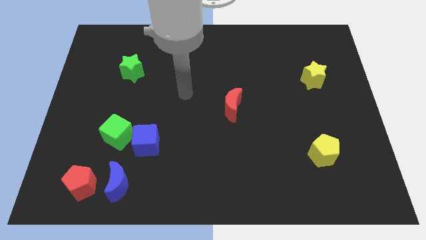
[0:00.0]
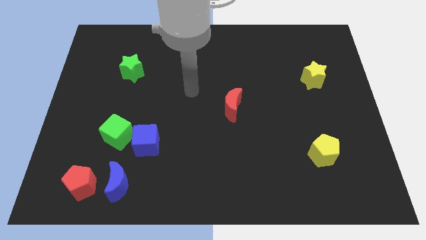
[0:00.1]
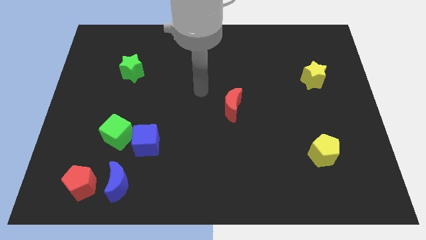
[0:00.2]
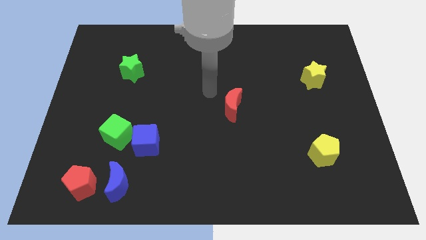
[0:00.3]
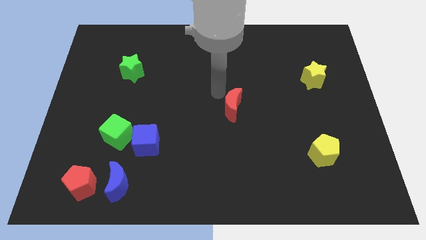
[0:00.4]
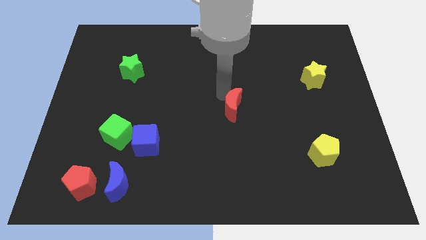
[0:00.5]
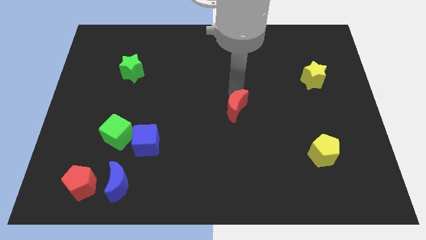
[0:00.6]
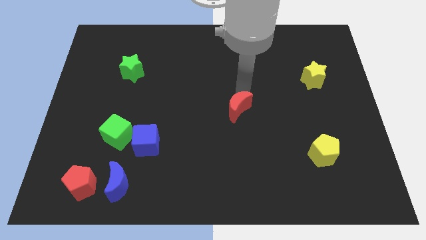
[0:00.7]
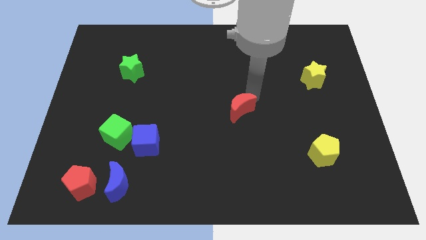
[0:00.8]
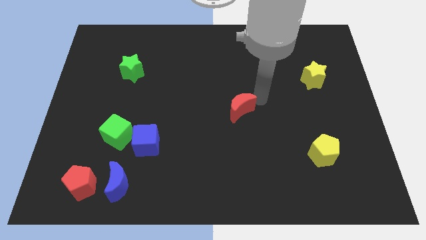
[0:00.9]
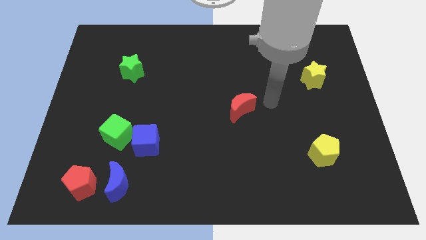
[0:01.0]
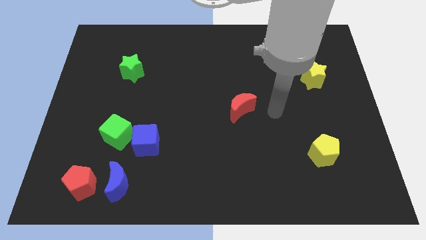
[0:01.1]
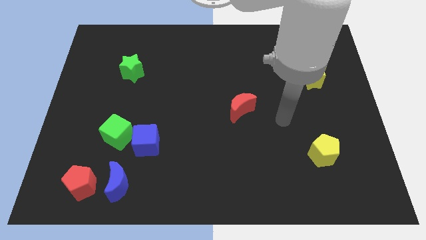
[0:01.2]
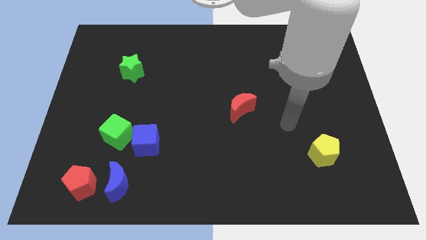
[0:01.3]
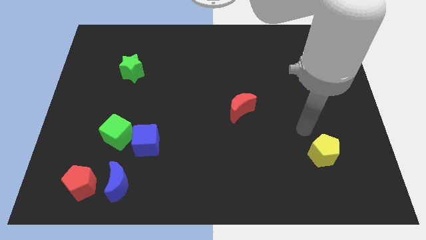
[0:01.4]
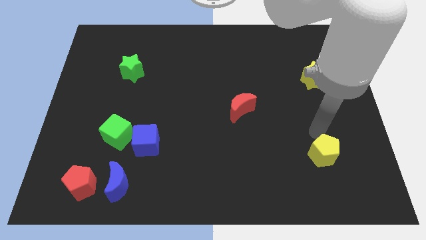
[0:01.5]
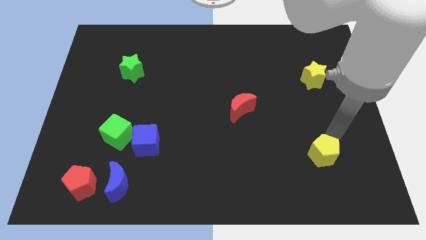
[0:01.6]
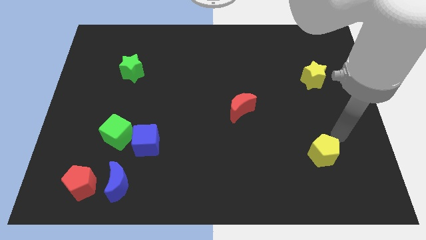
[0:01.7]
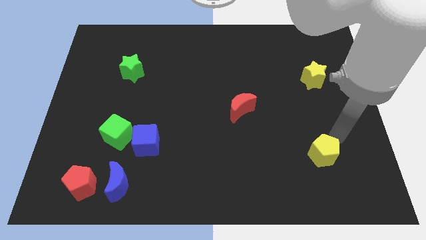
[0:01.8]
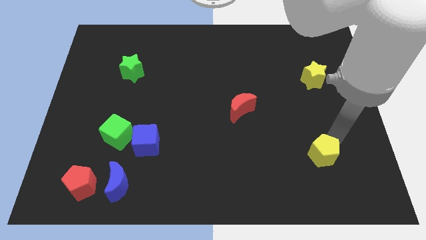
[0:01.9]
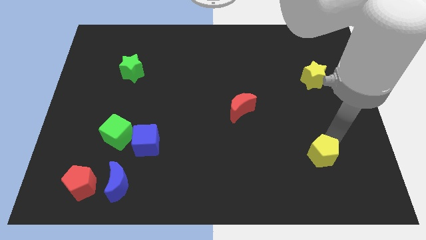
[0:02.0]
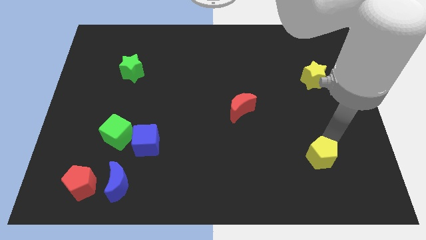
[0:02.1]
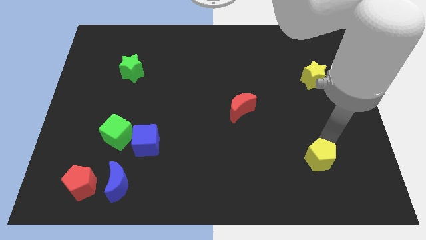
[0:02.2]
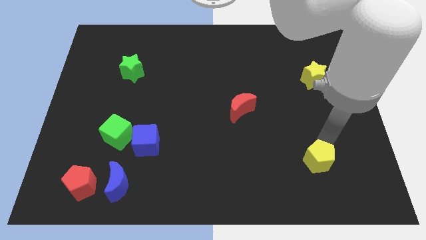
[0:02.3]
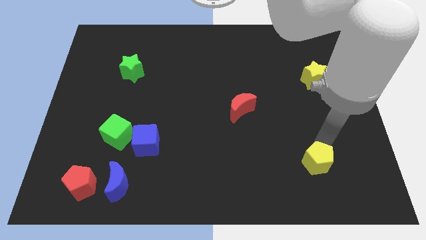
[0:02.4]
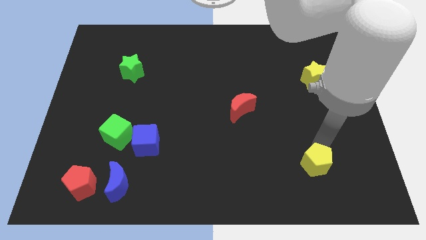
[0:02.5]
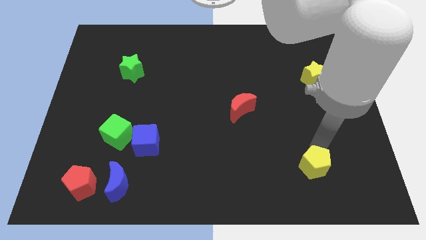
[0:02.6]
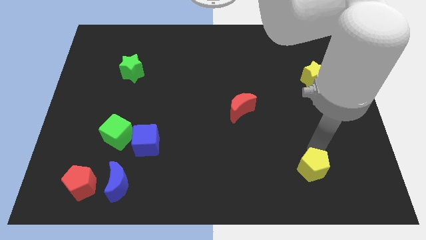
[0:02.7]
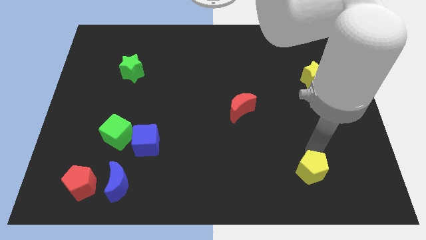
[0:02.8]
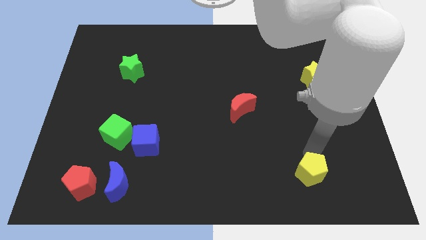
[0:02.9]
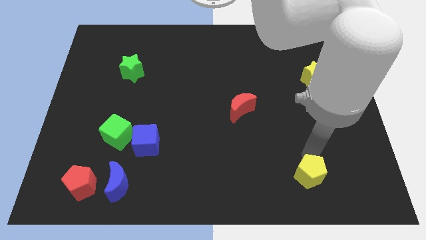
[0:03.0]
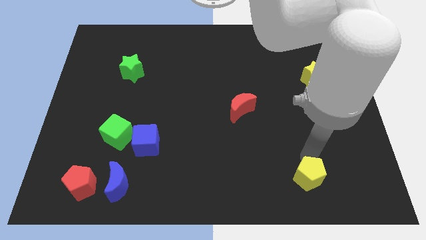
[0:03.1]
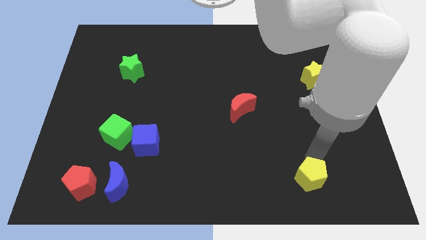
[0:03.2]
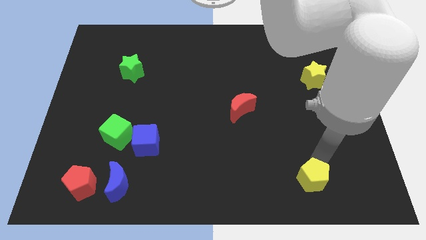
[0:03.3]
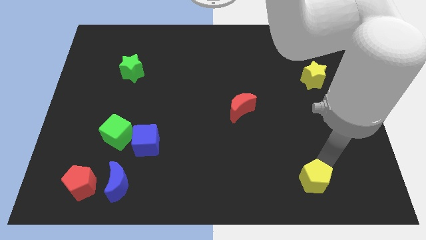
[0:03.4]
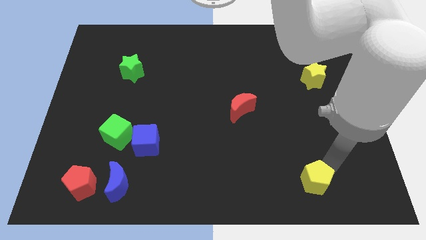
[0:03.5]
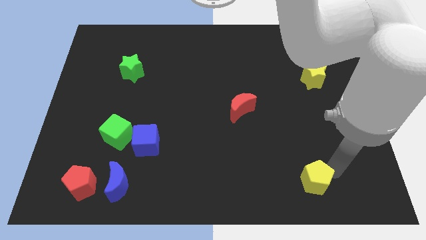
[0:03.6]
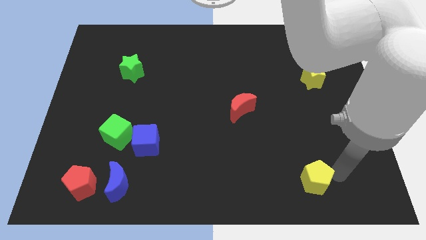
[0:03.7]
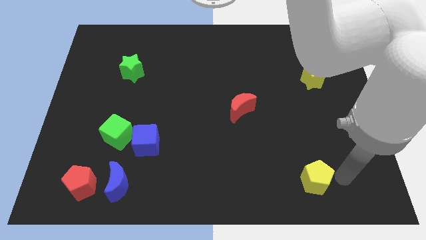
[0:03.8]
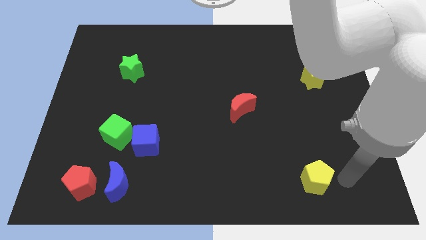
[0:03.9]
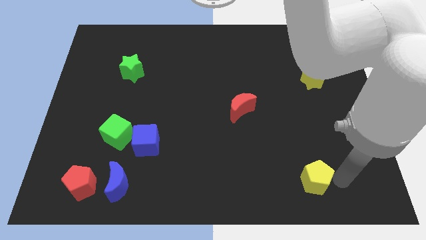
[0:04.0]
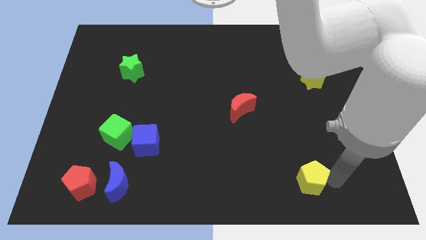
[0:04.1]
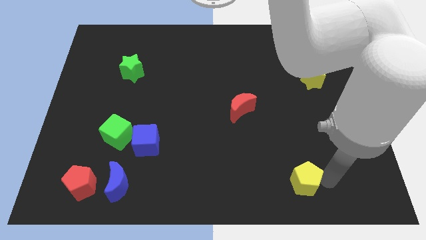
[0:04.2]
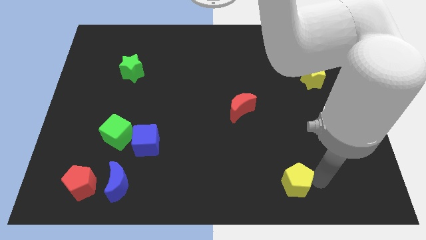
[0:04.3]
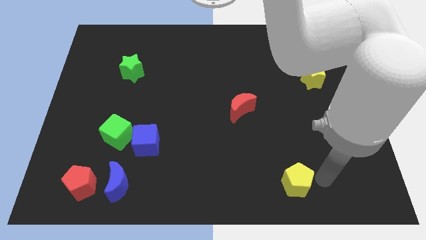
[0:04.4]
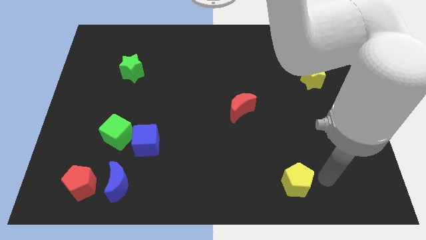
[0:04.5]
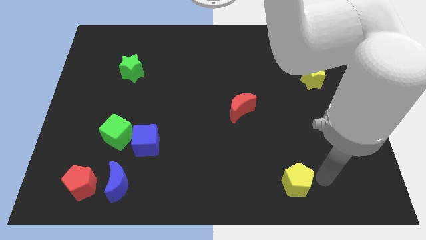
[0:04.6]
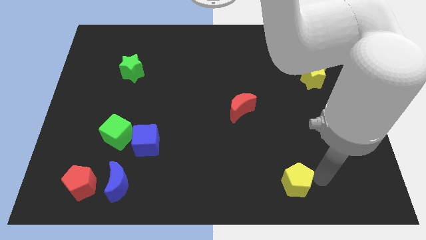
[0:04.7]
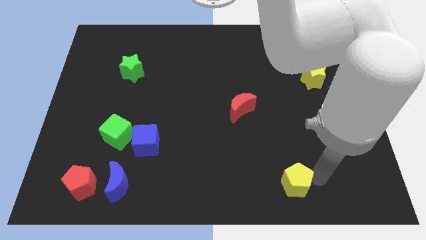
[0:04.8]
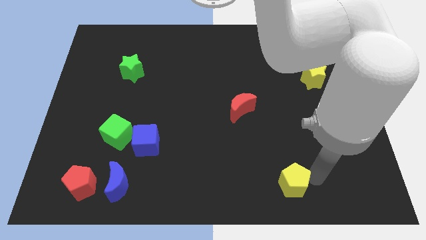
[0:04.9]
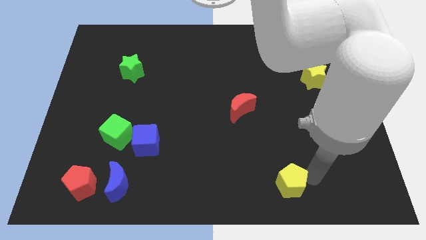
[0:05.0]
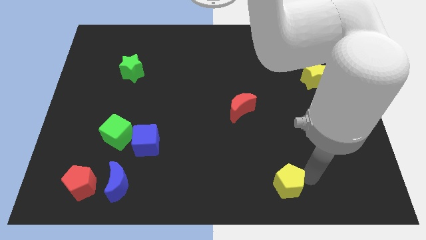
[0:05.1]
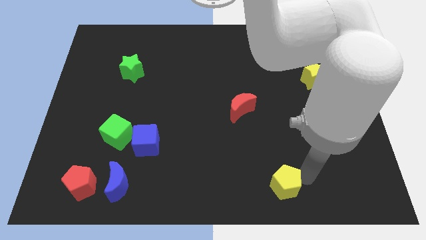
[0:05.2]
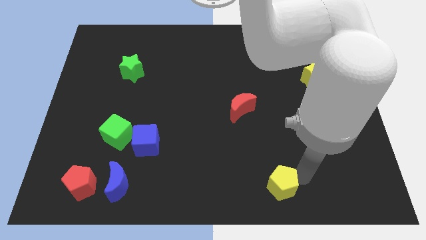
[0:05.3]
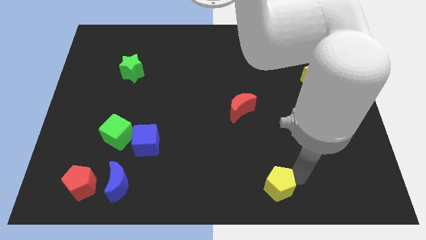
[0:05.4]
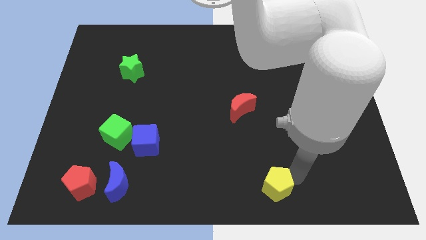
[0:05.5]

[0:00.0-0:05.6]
put the yellow pentagon to the bottom

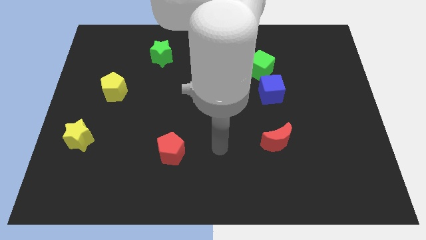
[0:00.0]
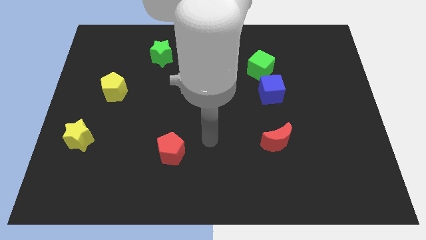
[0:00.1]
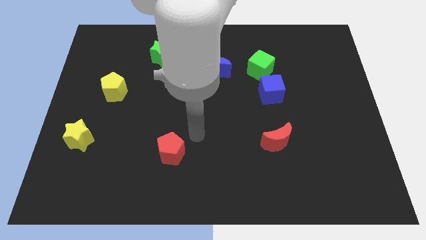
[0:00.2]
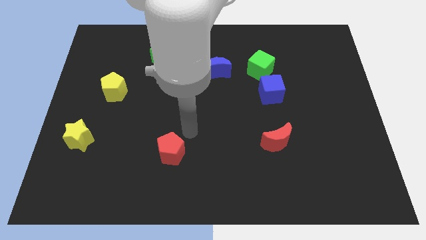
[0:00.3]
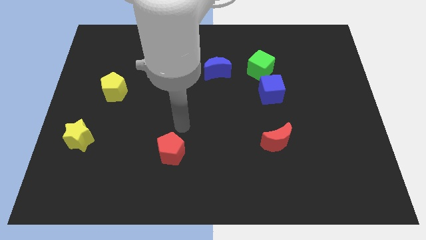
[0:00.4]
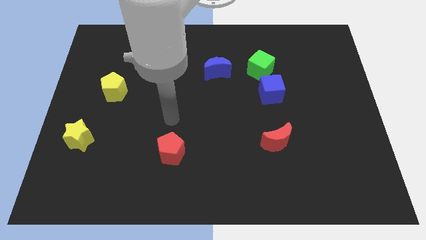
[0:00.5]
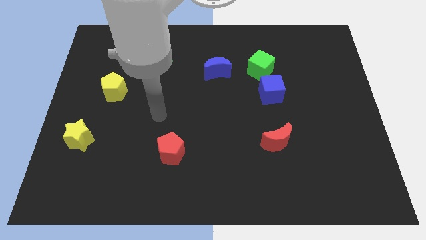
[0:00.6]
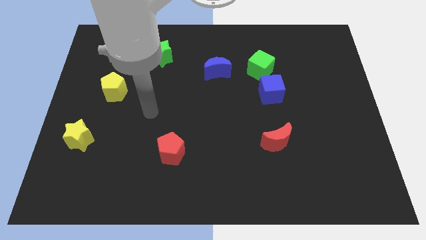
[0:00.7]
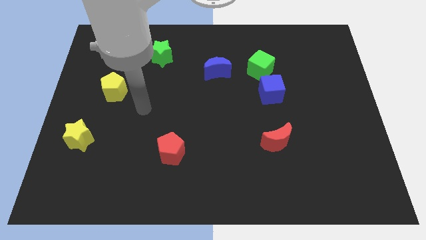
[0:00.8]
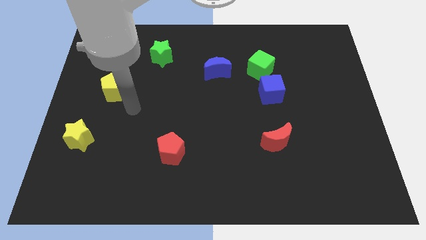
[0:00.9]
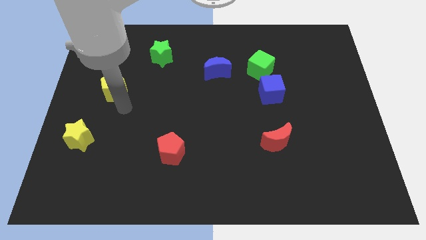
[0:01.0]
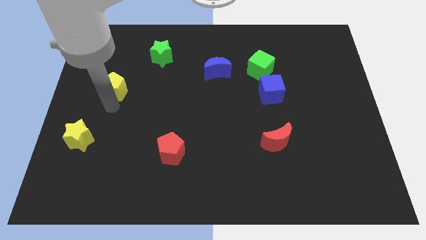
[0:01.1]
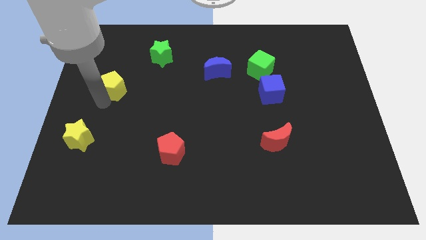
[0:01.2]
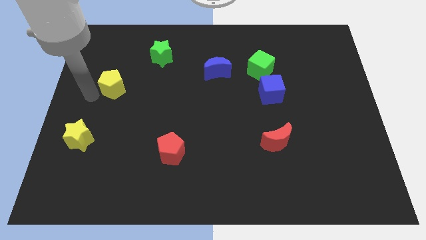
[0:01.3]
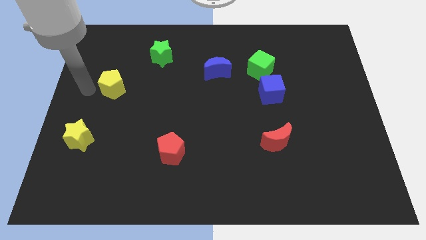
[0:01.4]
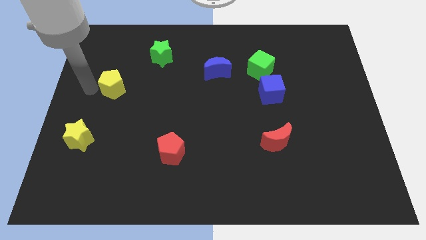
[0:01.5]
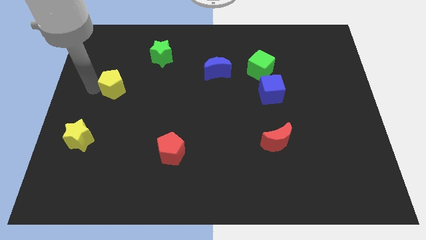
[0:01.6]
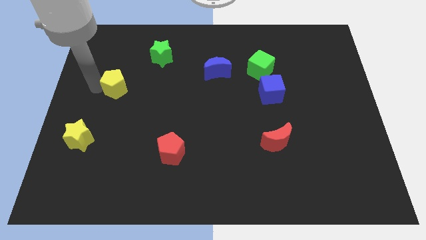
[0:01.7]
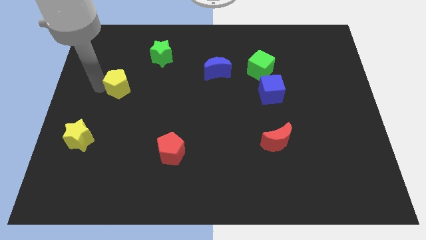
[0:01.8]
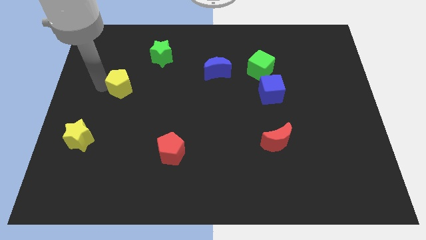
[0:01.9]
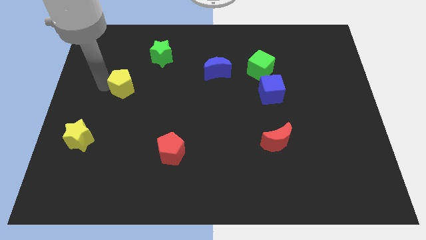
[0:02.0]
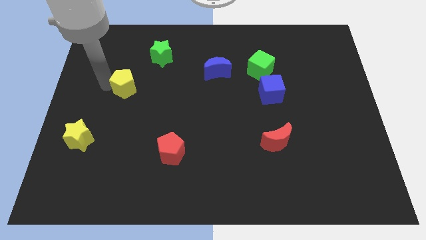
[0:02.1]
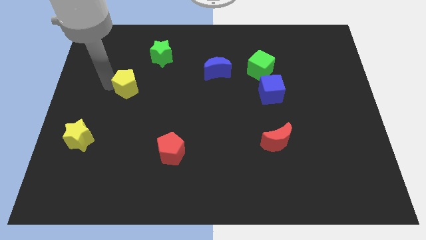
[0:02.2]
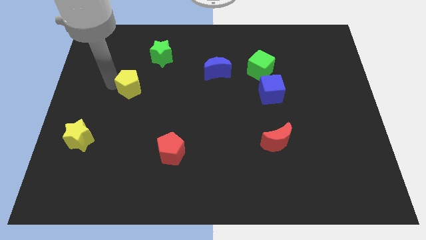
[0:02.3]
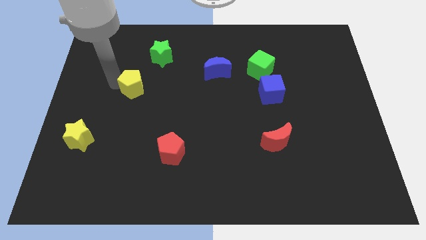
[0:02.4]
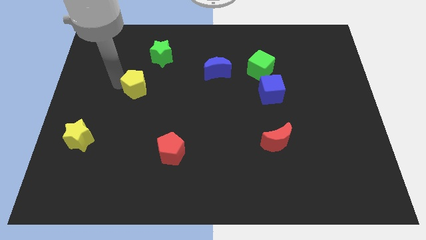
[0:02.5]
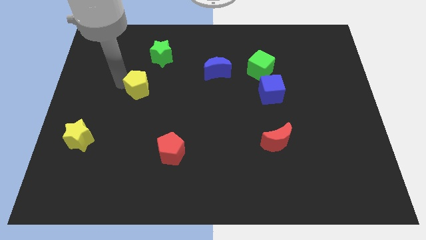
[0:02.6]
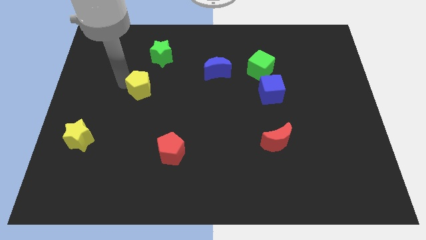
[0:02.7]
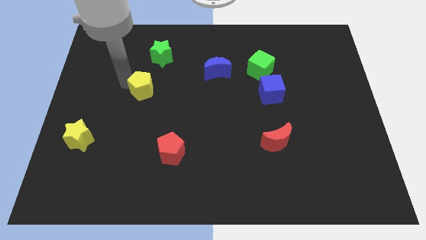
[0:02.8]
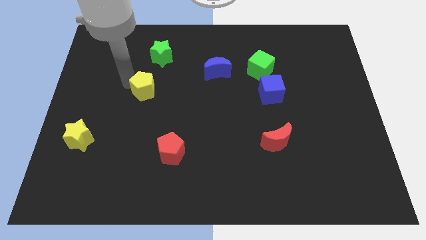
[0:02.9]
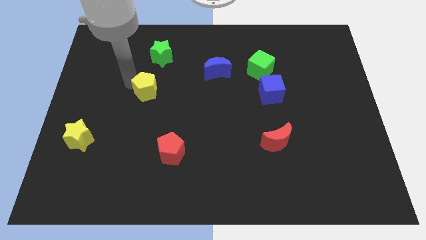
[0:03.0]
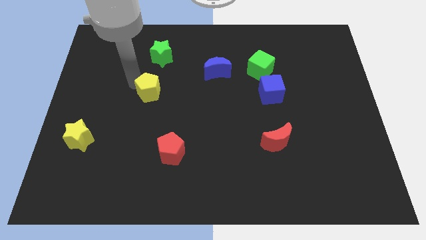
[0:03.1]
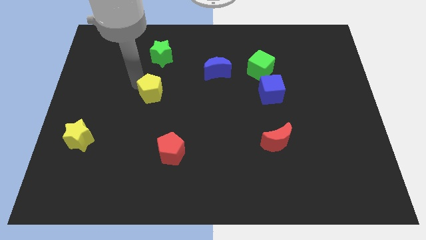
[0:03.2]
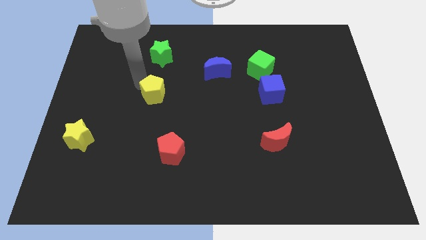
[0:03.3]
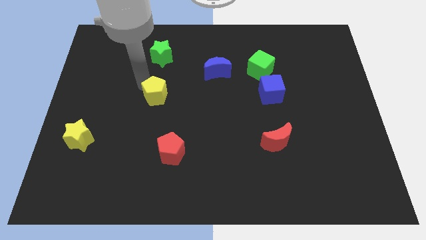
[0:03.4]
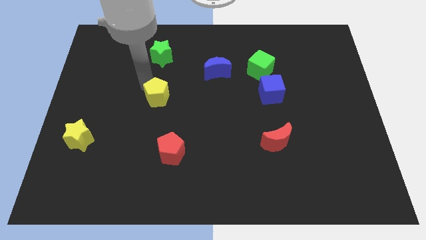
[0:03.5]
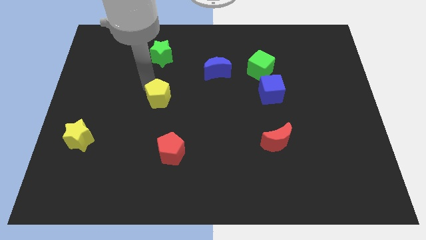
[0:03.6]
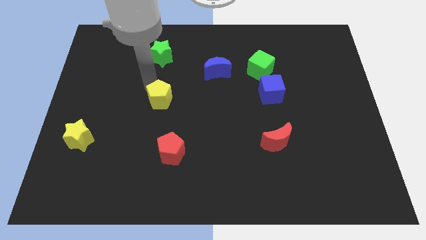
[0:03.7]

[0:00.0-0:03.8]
slide the yellow pentagon to the center
